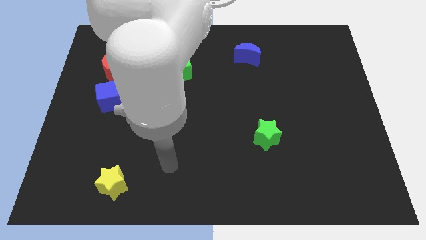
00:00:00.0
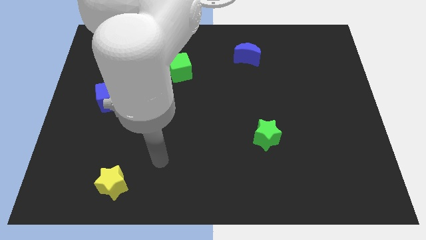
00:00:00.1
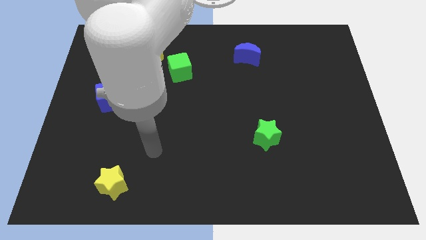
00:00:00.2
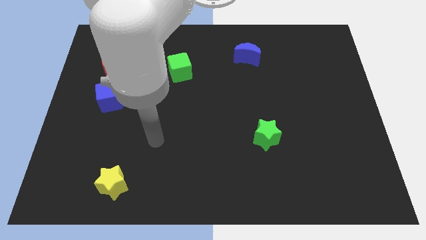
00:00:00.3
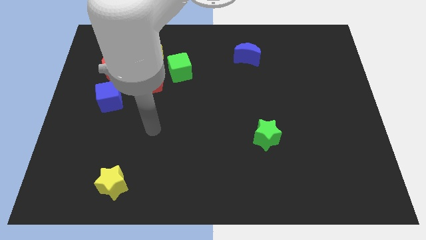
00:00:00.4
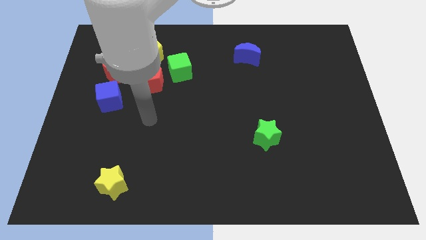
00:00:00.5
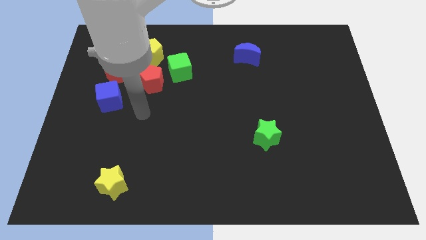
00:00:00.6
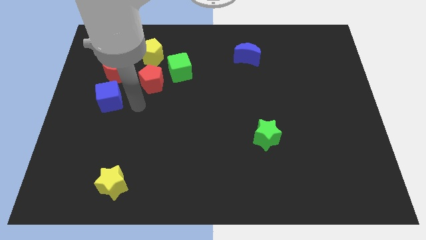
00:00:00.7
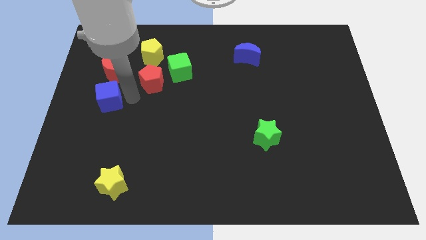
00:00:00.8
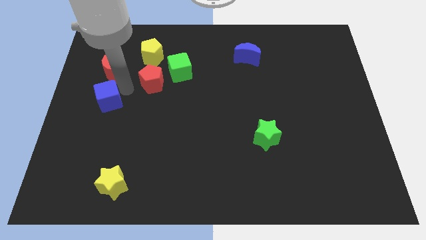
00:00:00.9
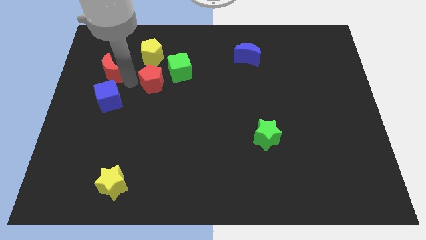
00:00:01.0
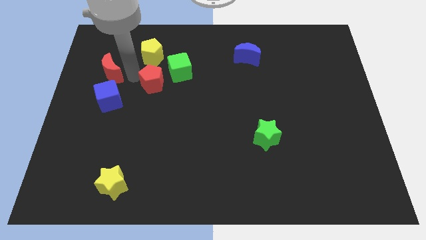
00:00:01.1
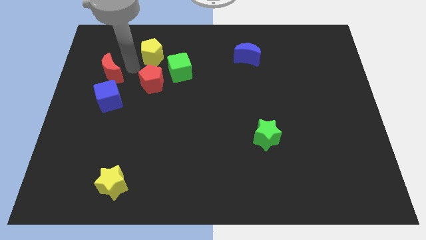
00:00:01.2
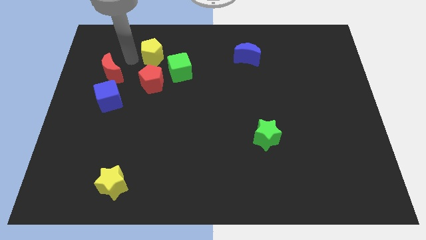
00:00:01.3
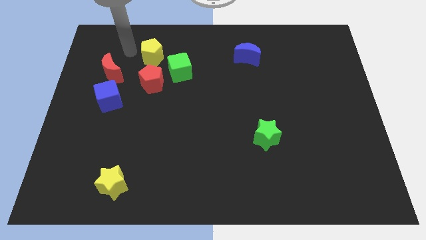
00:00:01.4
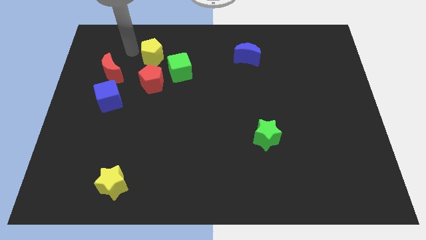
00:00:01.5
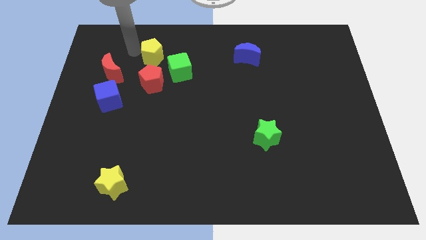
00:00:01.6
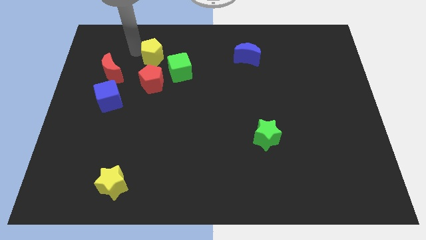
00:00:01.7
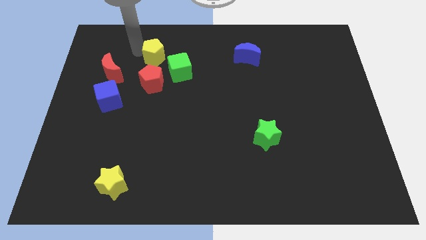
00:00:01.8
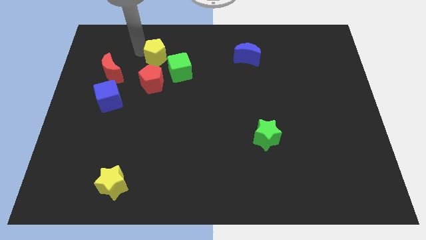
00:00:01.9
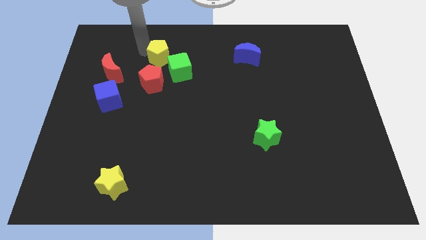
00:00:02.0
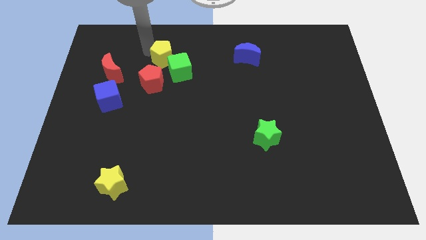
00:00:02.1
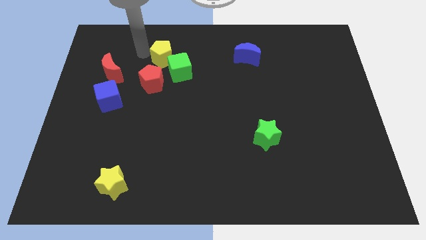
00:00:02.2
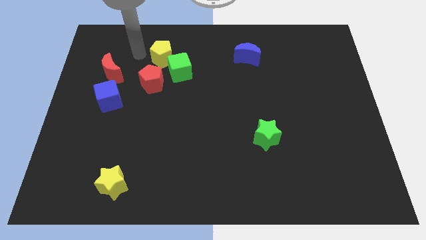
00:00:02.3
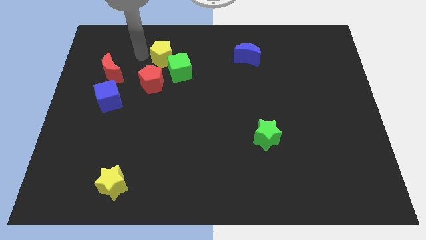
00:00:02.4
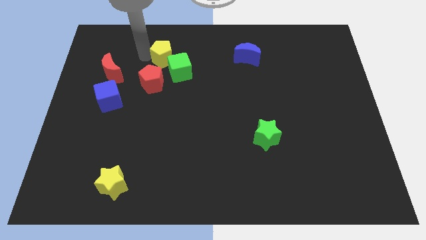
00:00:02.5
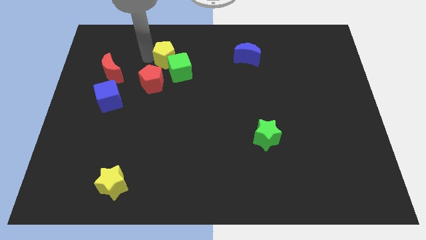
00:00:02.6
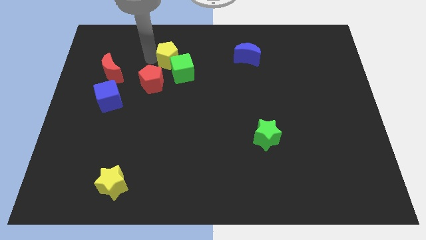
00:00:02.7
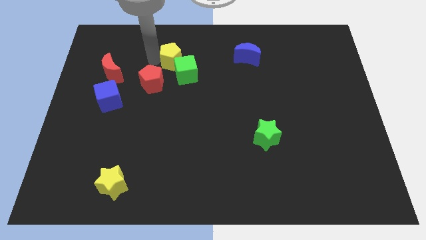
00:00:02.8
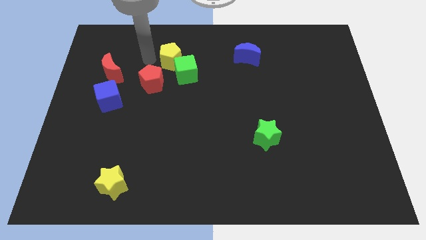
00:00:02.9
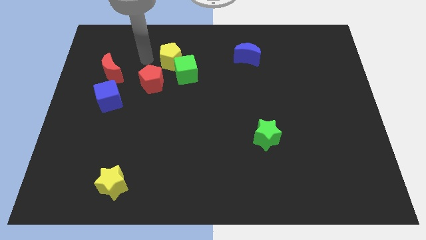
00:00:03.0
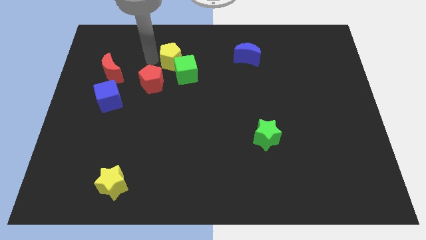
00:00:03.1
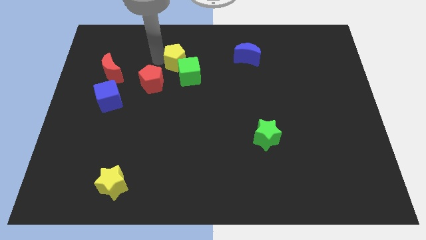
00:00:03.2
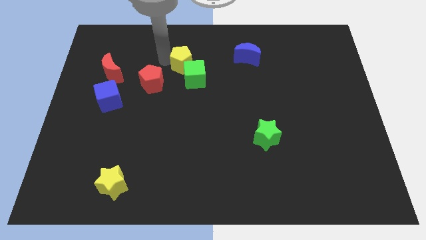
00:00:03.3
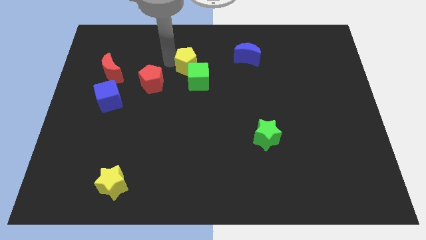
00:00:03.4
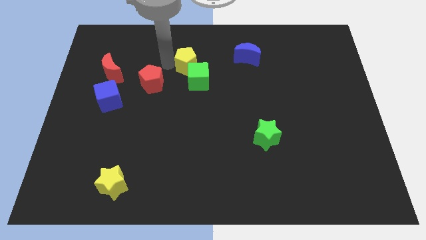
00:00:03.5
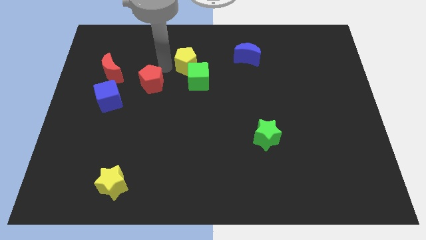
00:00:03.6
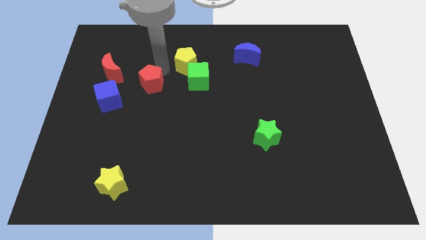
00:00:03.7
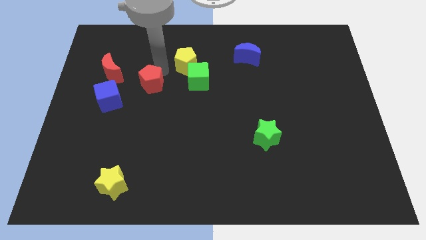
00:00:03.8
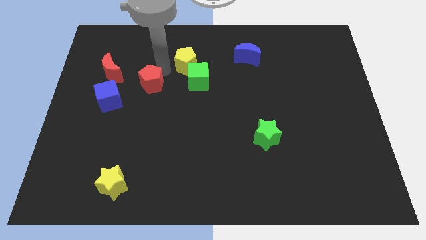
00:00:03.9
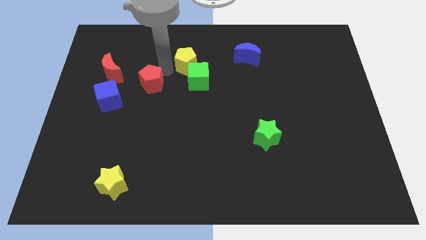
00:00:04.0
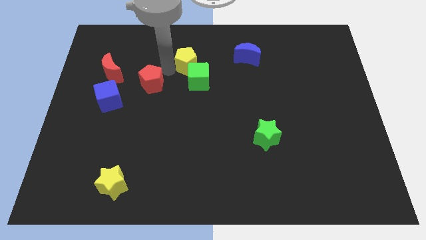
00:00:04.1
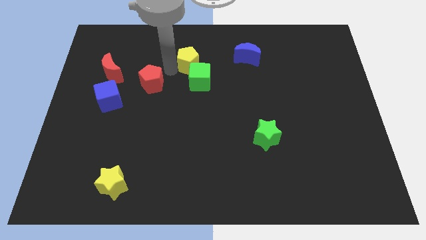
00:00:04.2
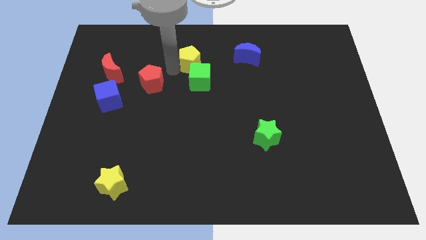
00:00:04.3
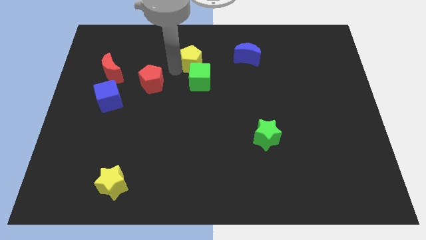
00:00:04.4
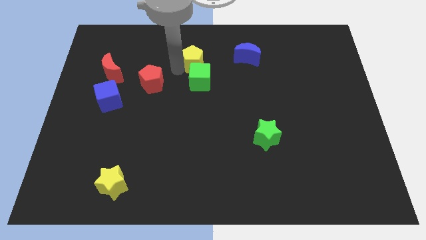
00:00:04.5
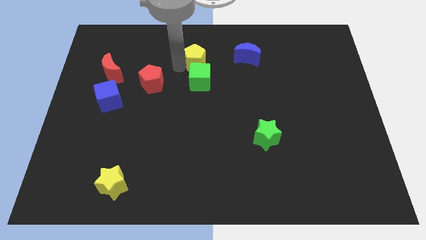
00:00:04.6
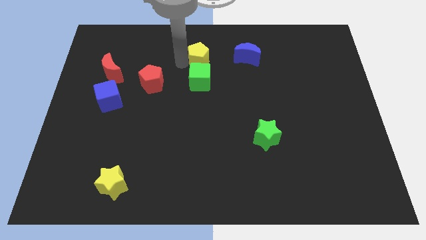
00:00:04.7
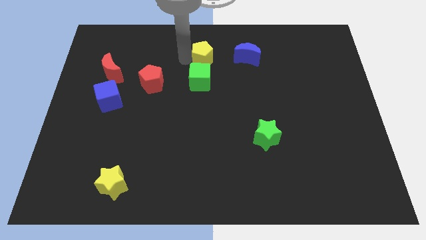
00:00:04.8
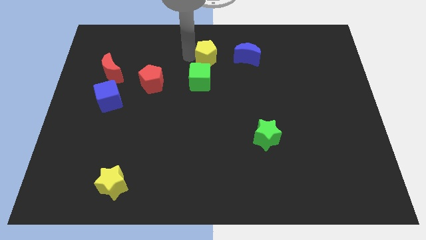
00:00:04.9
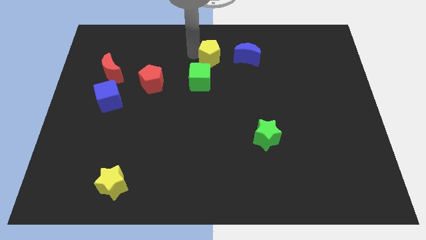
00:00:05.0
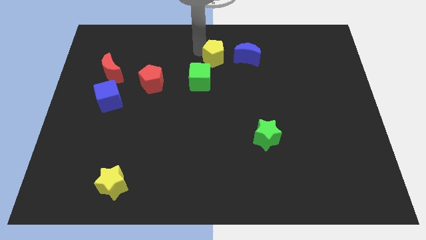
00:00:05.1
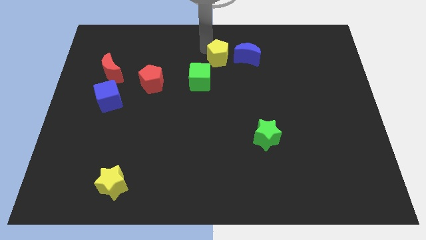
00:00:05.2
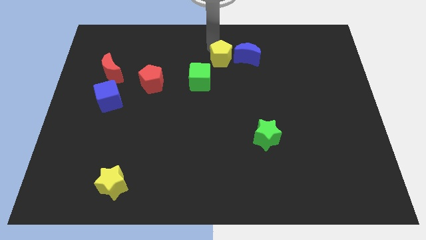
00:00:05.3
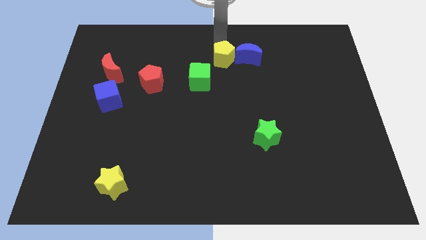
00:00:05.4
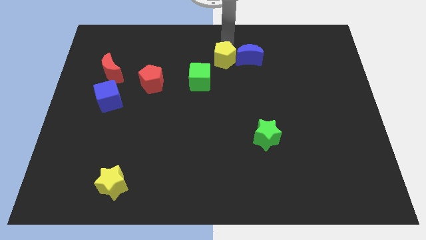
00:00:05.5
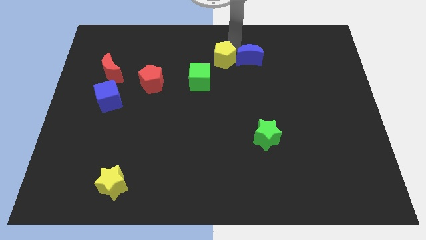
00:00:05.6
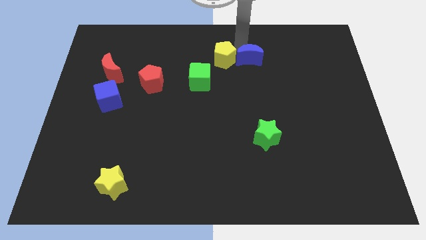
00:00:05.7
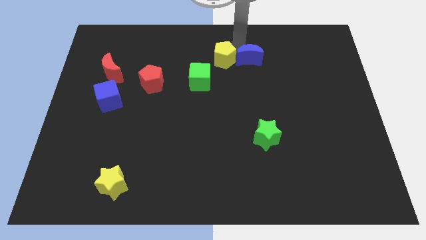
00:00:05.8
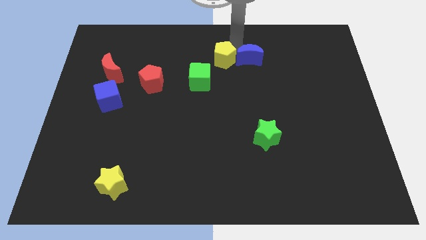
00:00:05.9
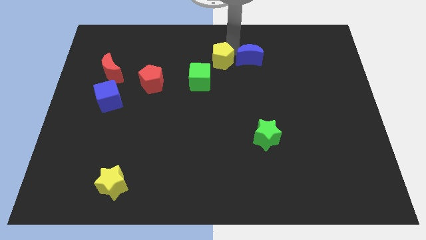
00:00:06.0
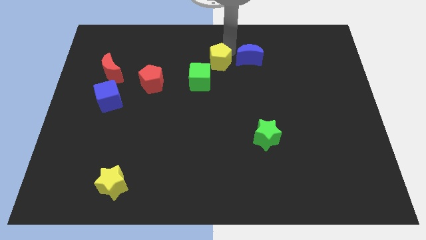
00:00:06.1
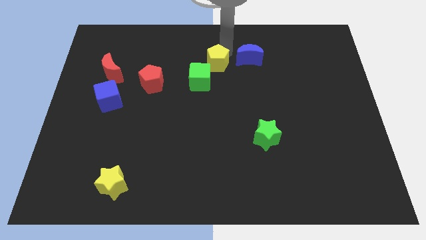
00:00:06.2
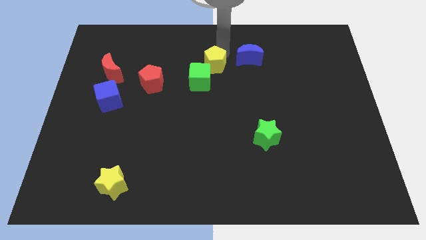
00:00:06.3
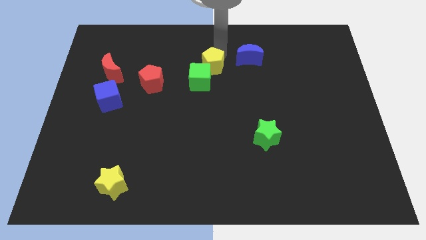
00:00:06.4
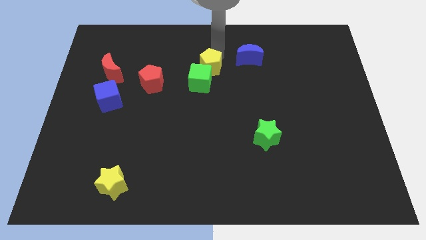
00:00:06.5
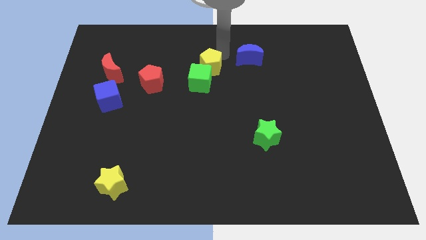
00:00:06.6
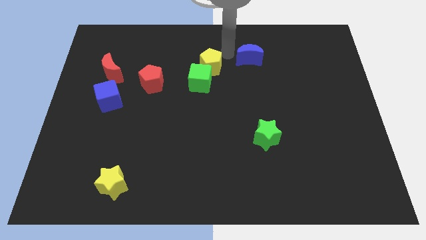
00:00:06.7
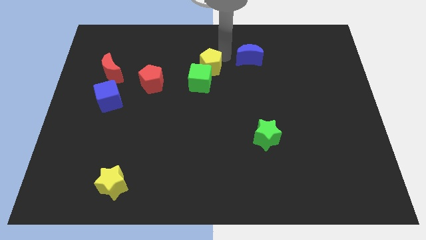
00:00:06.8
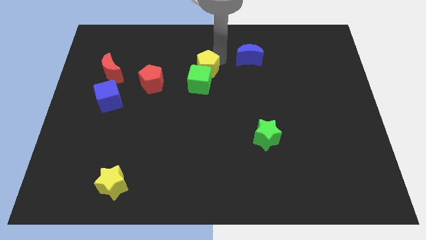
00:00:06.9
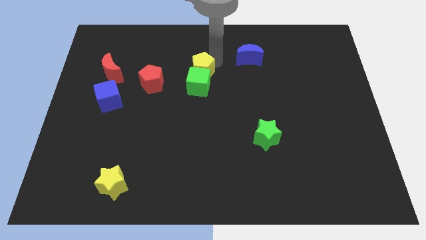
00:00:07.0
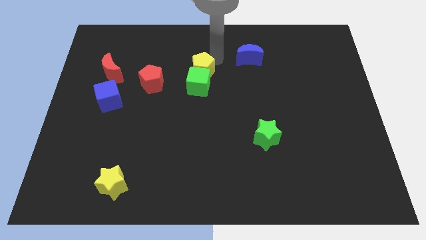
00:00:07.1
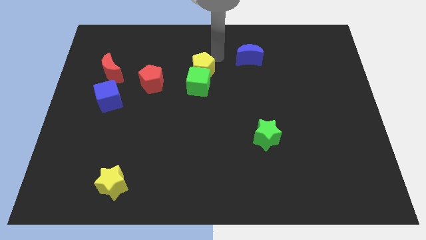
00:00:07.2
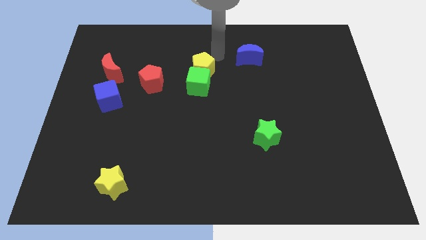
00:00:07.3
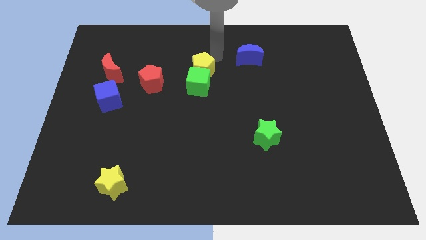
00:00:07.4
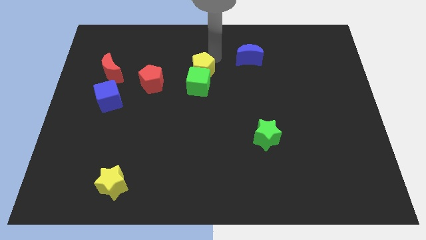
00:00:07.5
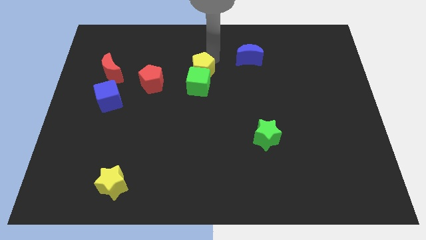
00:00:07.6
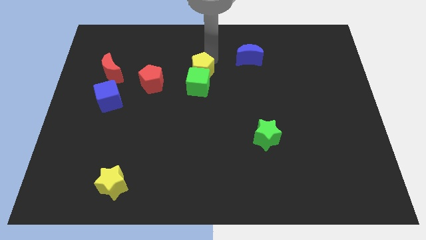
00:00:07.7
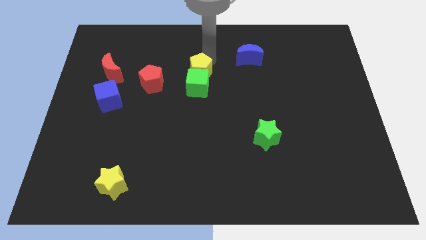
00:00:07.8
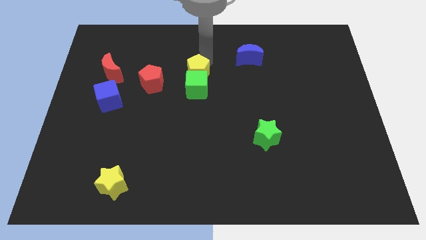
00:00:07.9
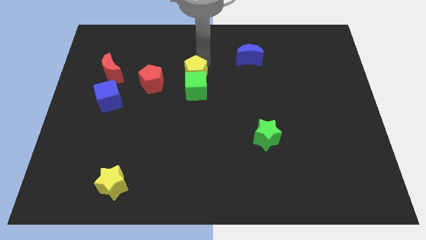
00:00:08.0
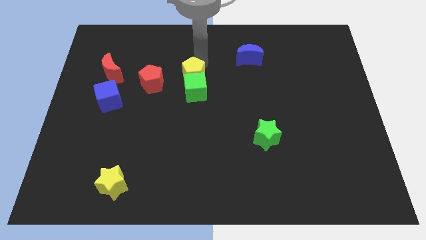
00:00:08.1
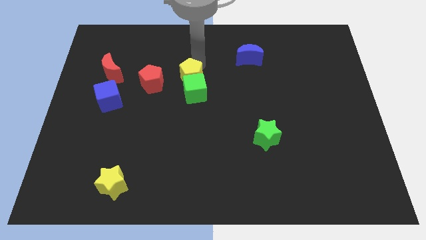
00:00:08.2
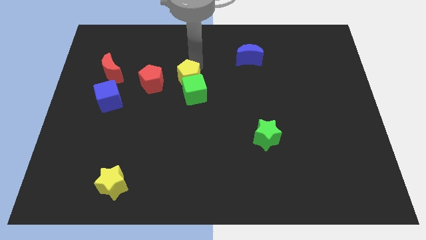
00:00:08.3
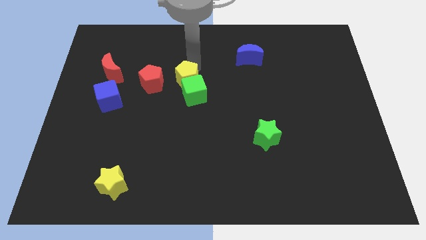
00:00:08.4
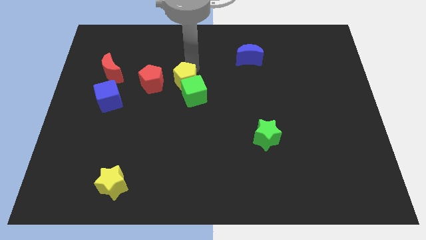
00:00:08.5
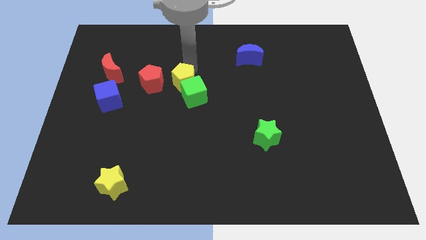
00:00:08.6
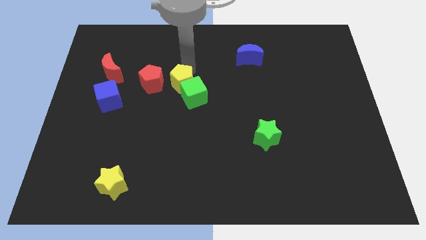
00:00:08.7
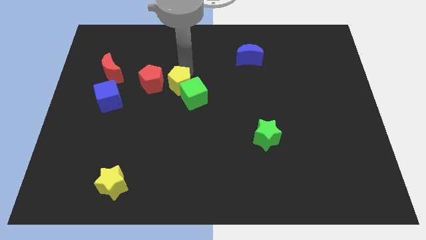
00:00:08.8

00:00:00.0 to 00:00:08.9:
push the yellow pentagon down somewhat
